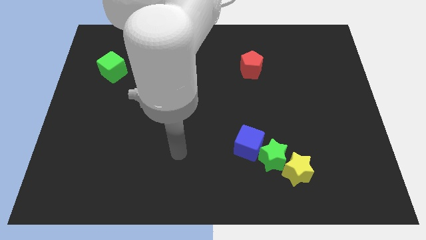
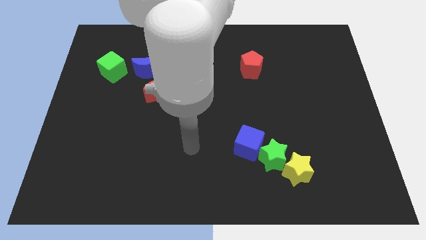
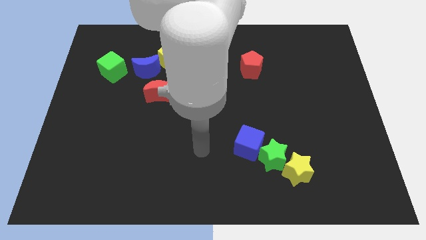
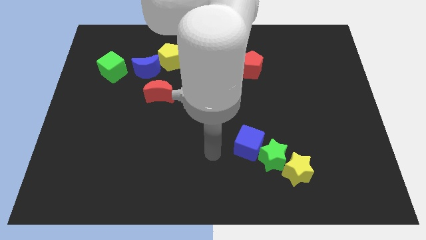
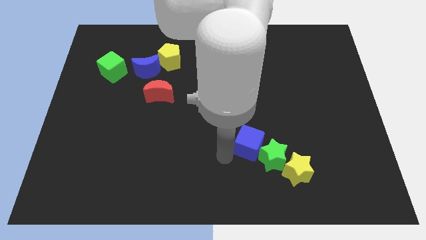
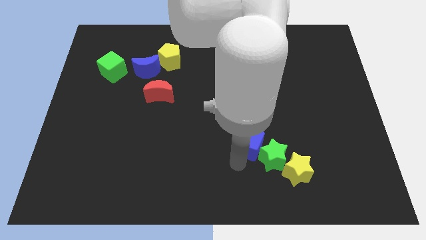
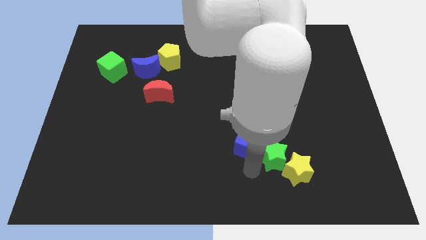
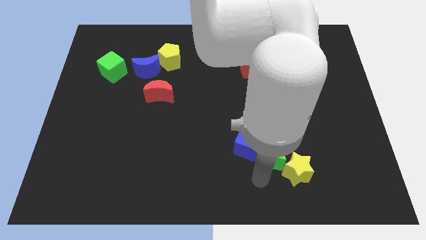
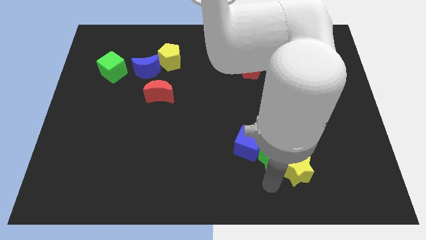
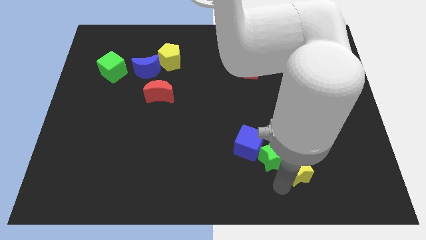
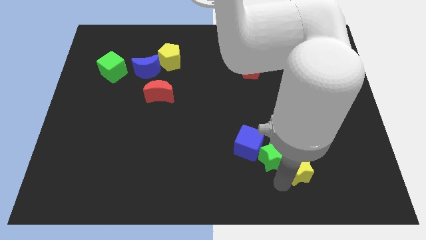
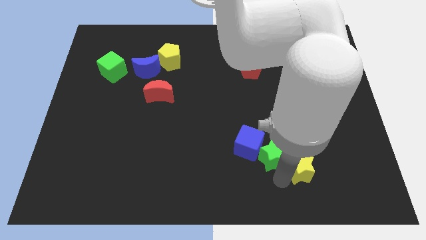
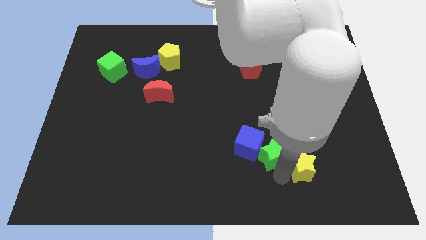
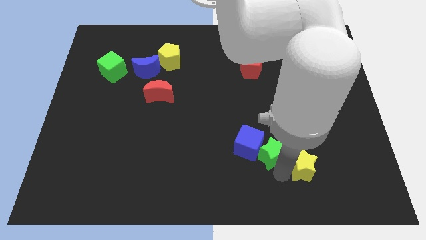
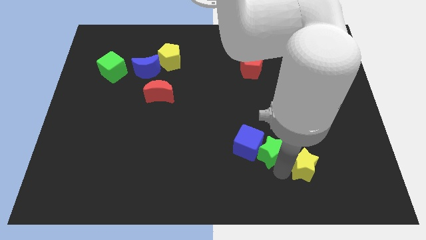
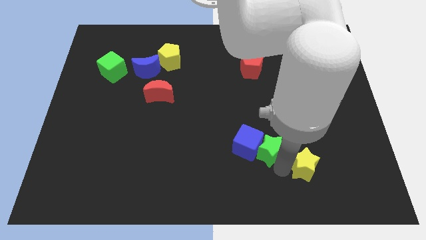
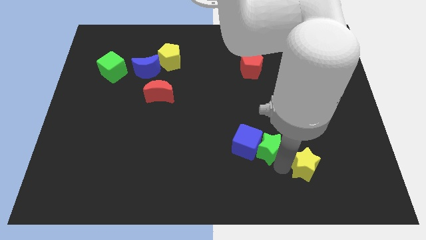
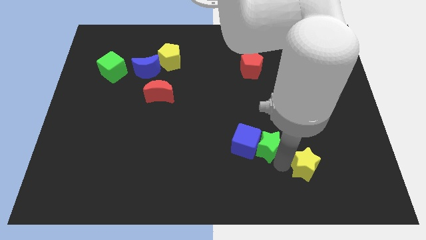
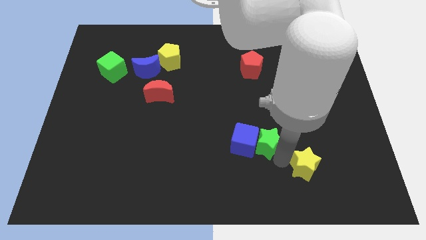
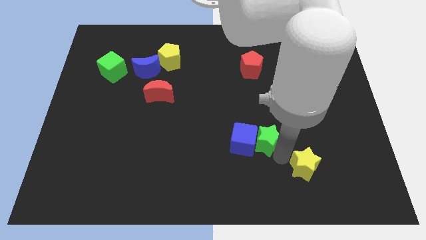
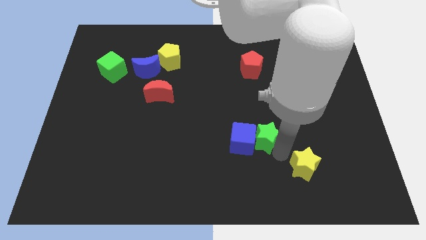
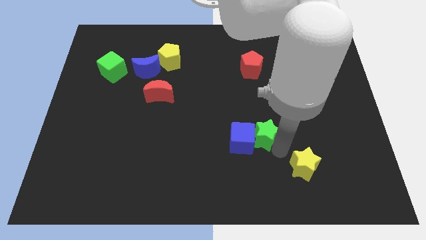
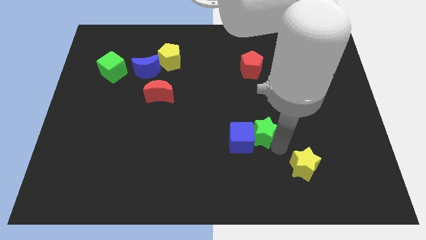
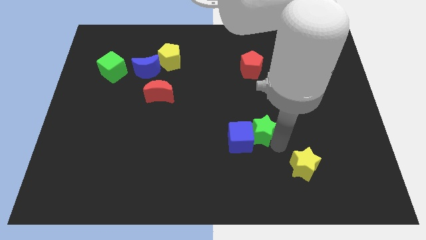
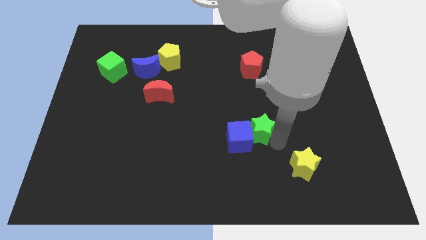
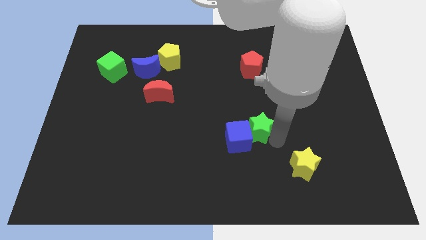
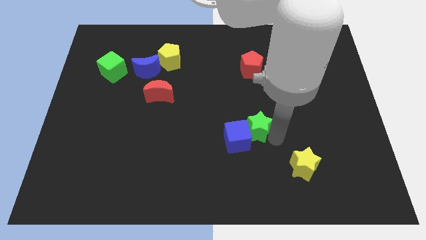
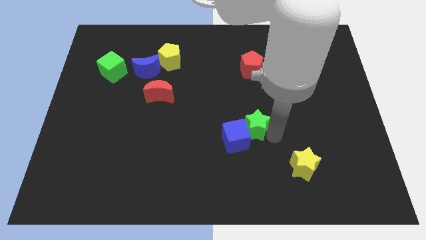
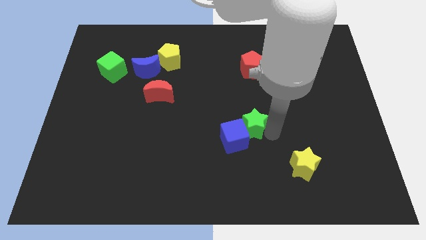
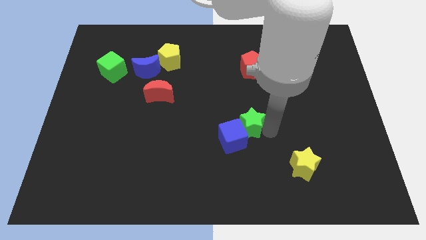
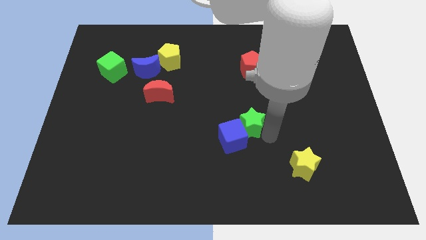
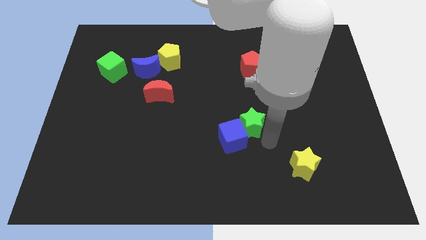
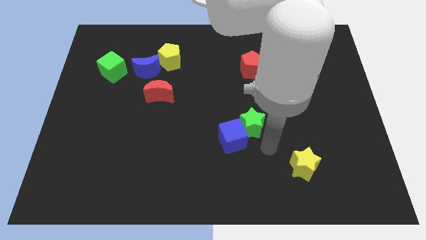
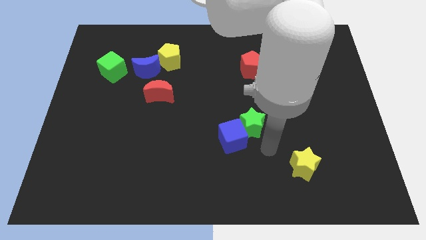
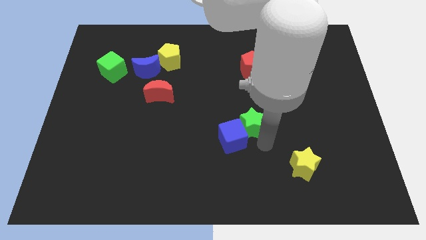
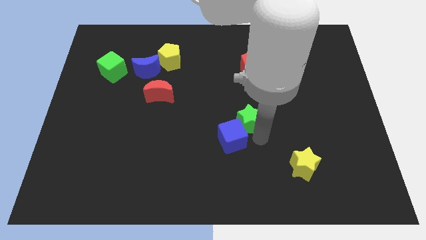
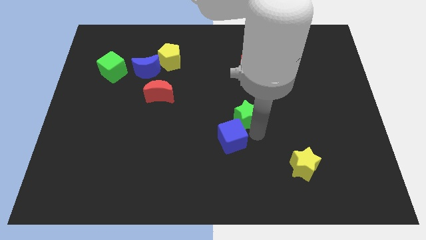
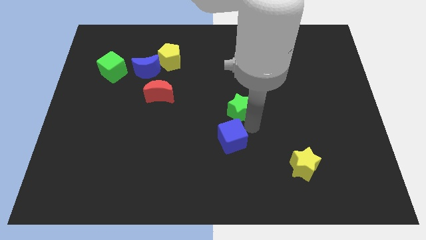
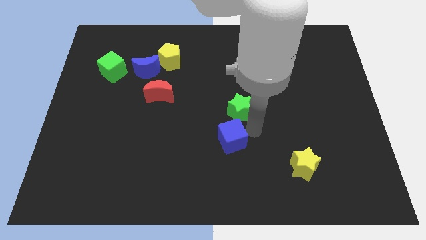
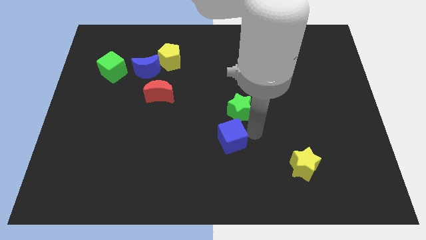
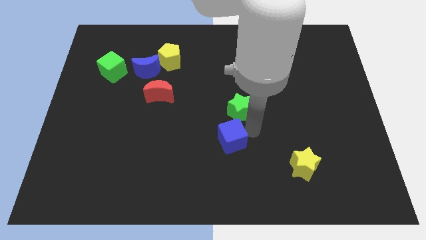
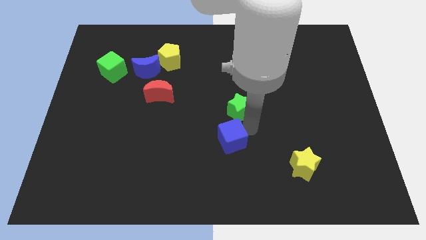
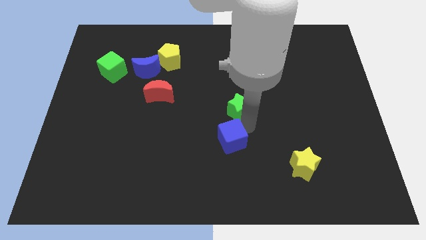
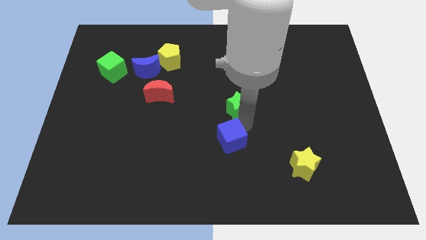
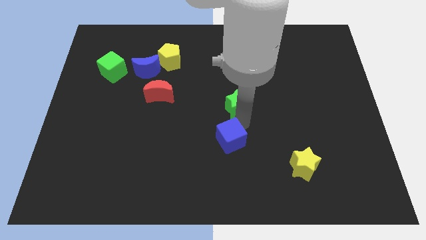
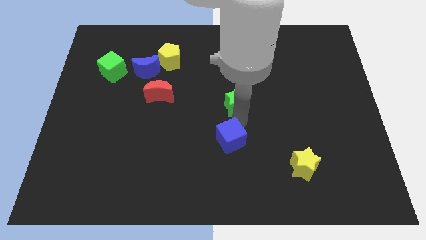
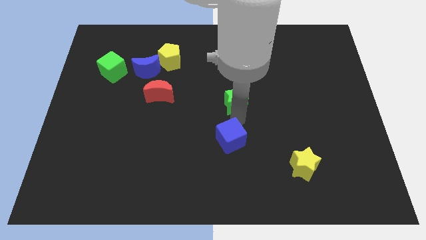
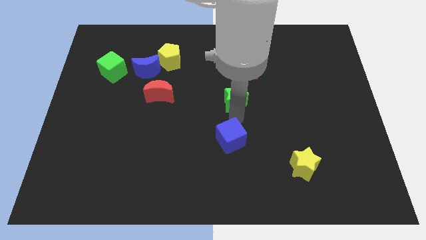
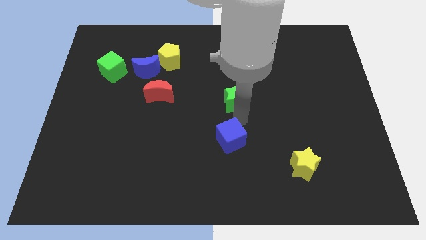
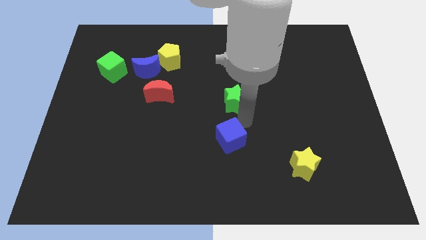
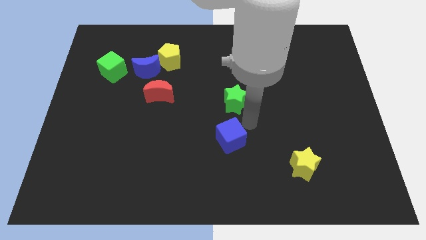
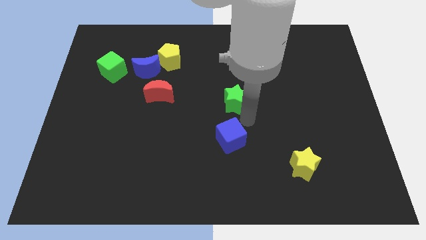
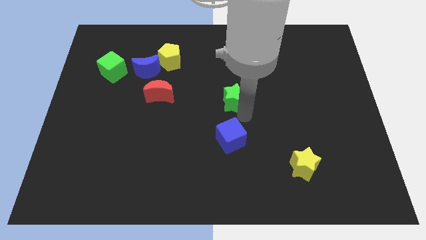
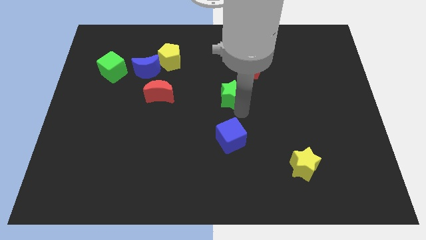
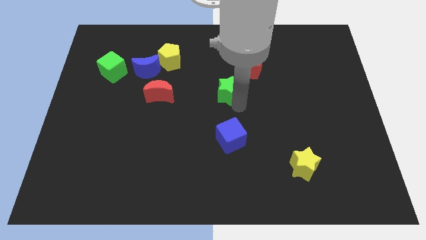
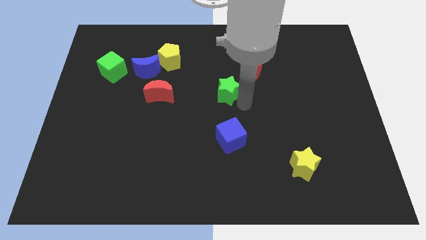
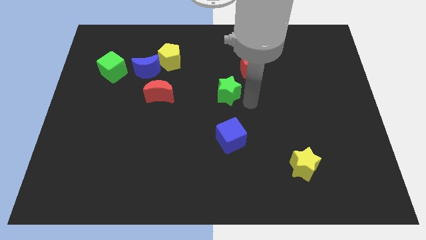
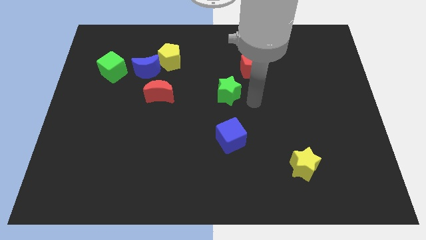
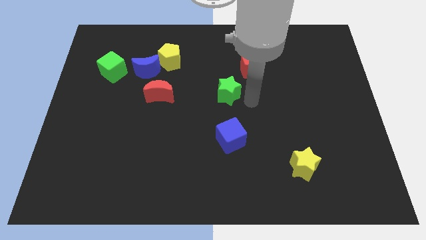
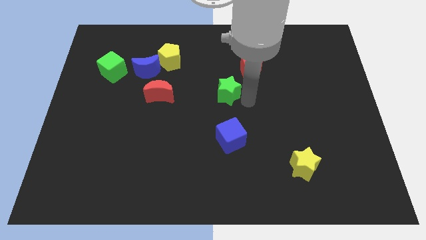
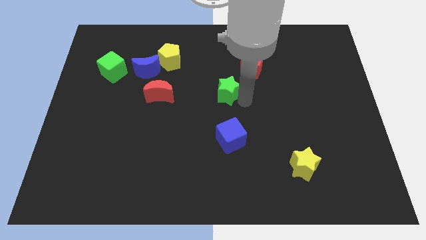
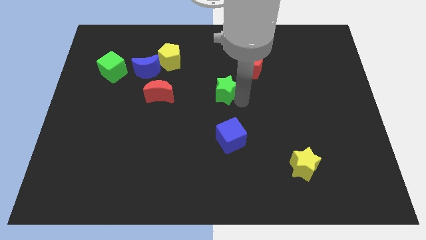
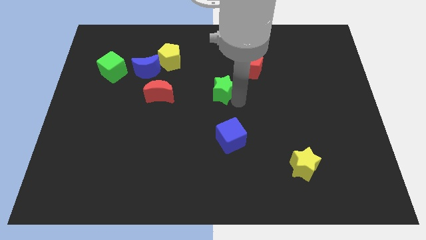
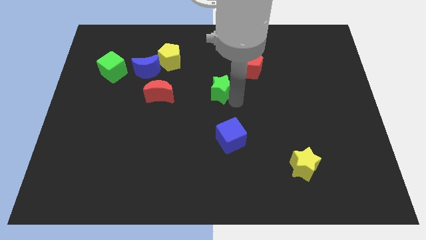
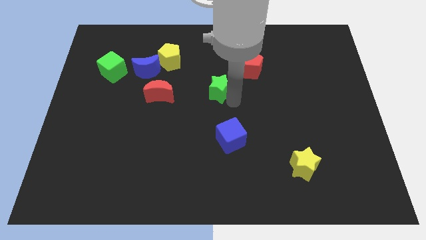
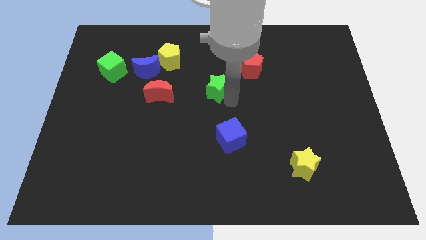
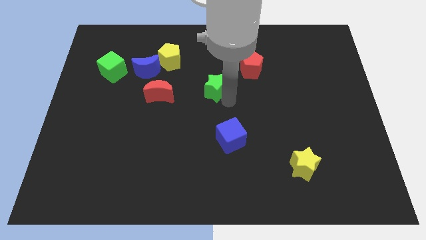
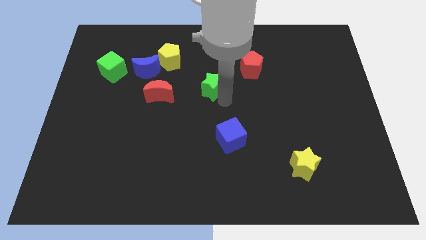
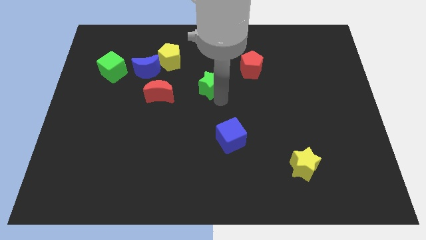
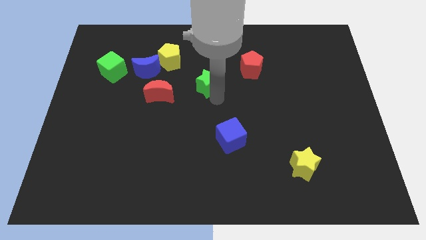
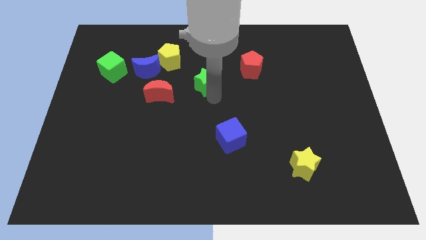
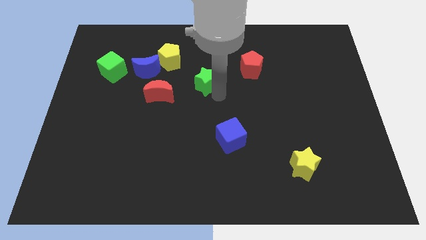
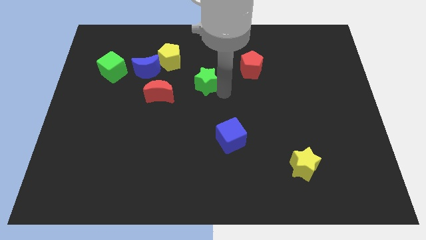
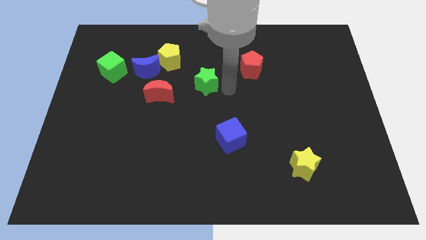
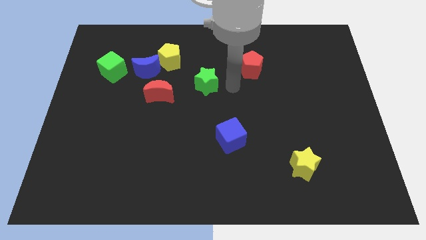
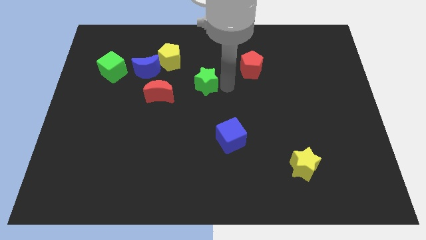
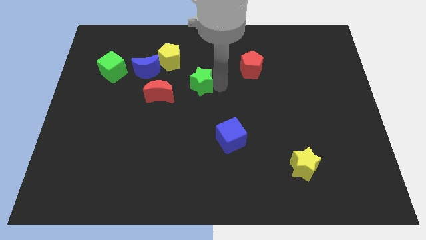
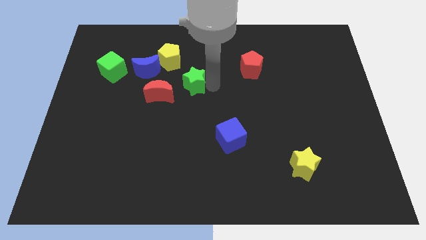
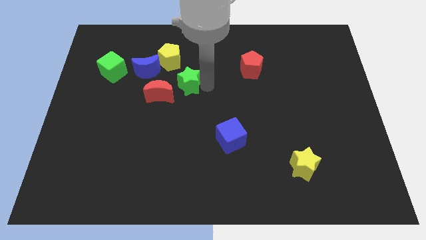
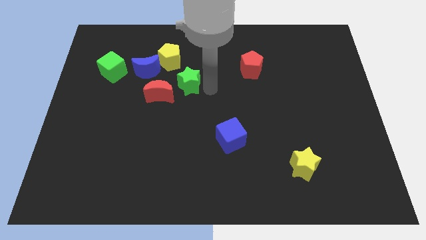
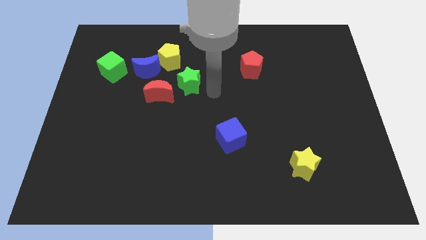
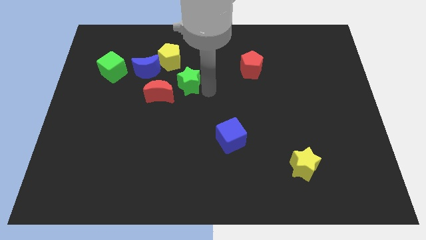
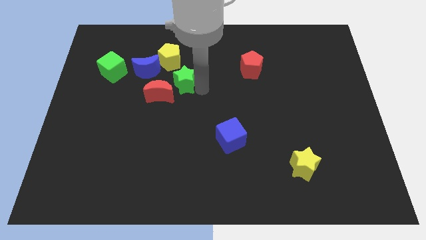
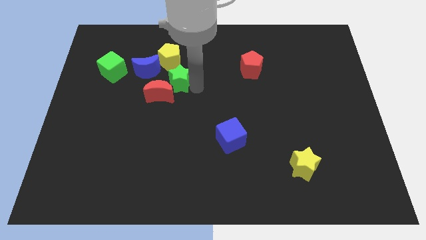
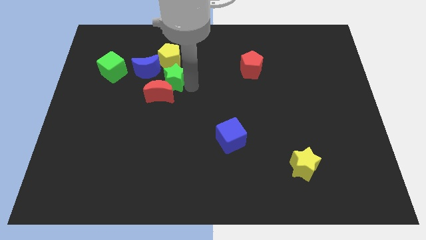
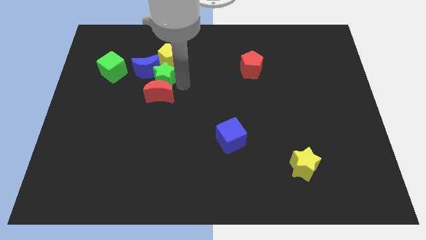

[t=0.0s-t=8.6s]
put the green star to the blue moon
